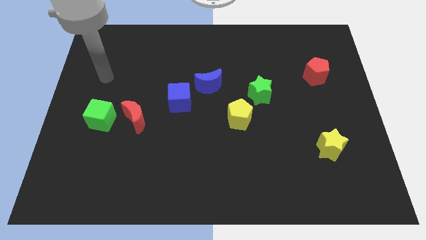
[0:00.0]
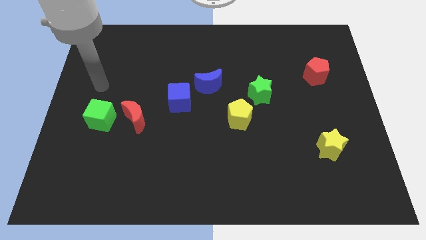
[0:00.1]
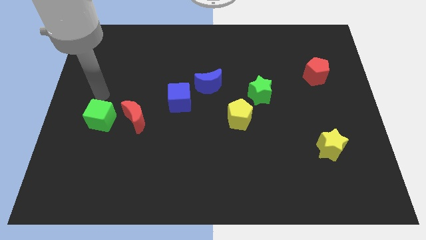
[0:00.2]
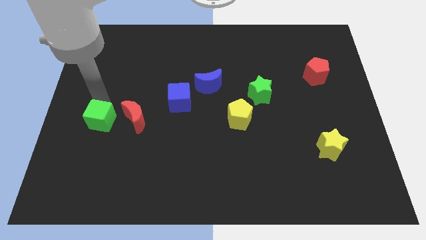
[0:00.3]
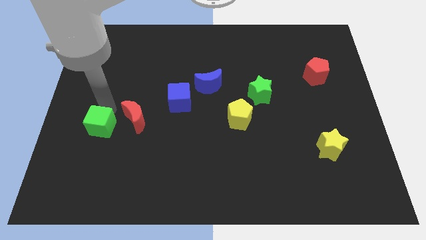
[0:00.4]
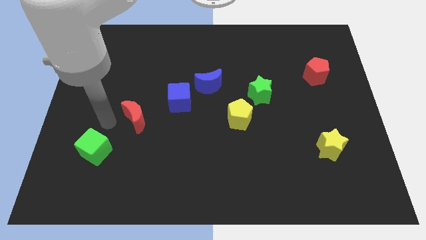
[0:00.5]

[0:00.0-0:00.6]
separate the red moon from the green cube

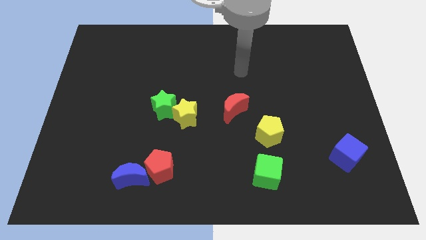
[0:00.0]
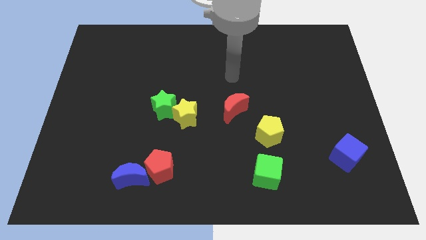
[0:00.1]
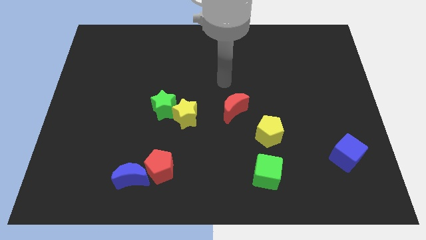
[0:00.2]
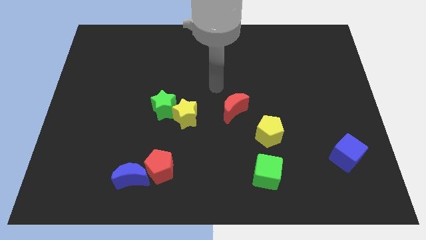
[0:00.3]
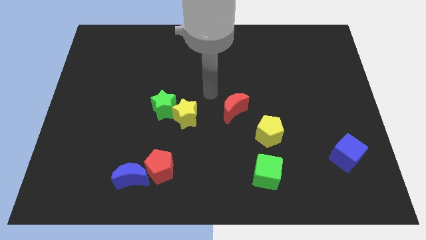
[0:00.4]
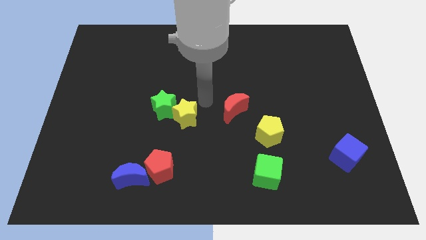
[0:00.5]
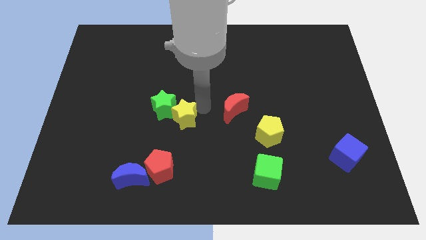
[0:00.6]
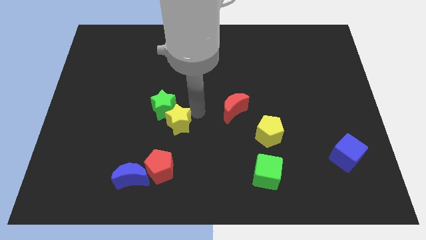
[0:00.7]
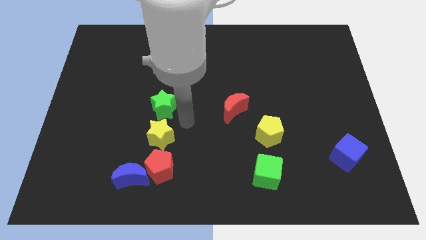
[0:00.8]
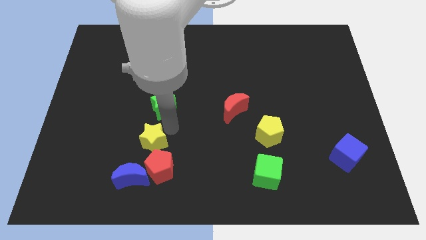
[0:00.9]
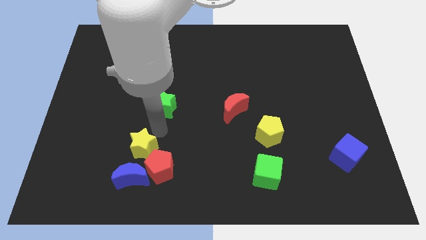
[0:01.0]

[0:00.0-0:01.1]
separate the green star from the yellow star

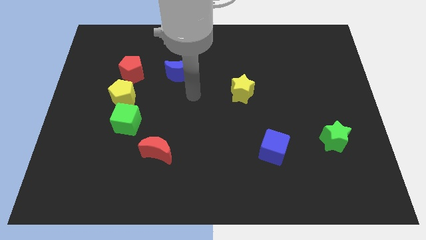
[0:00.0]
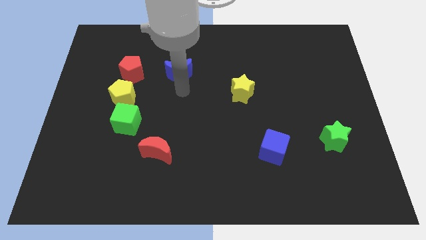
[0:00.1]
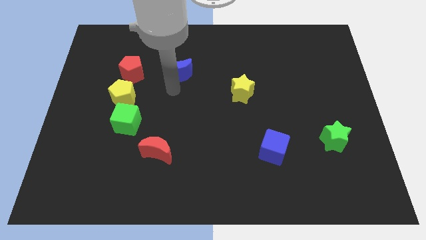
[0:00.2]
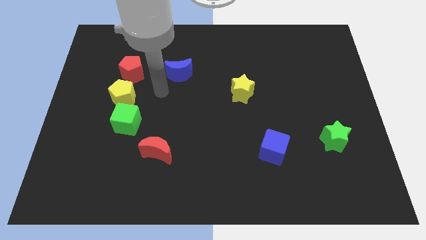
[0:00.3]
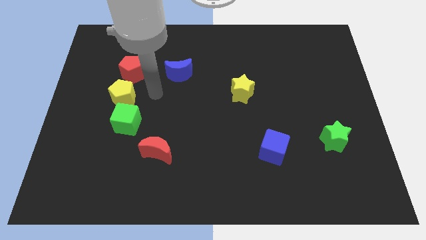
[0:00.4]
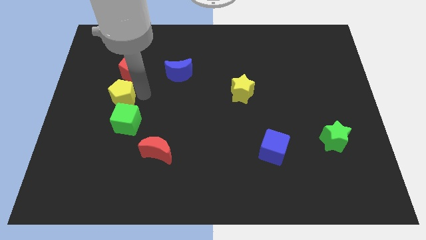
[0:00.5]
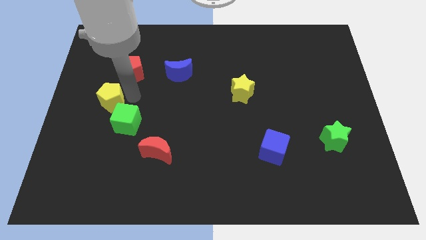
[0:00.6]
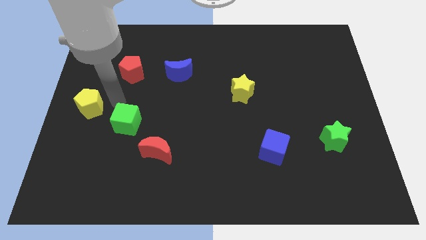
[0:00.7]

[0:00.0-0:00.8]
pull the green cube apart from the yellow pentagon

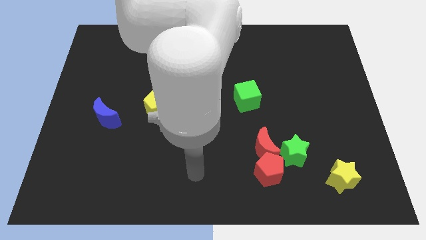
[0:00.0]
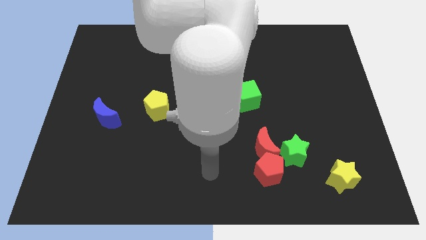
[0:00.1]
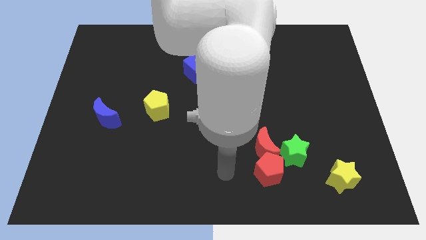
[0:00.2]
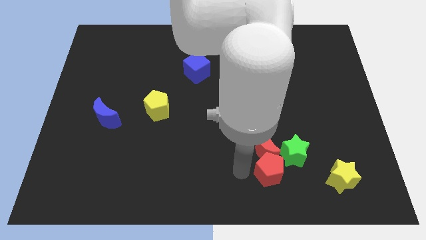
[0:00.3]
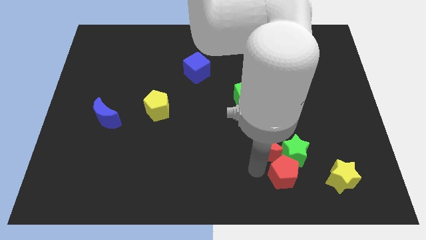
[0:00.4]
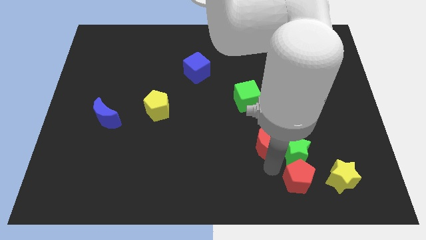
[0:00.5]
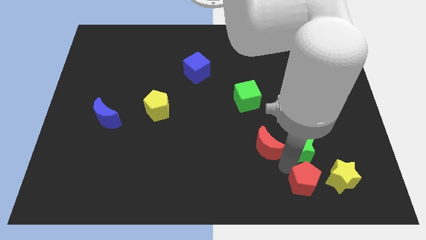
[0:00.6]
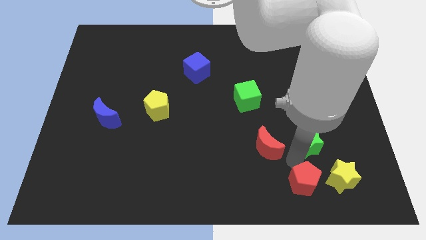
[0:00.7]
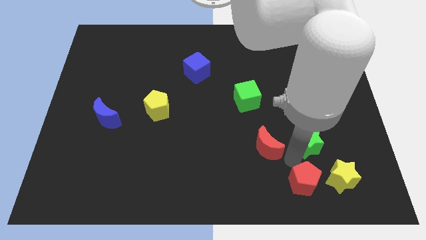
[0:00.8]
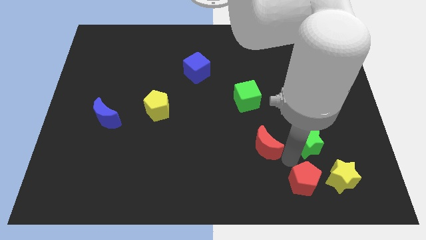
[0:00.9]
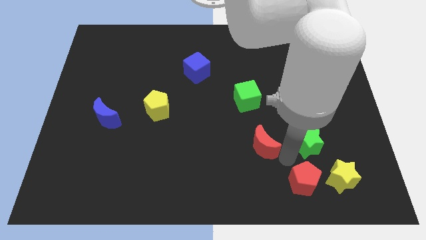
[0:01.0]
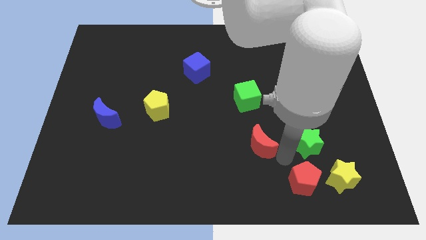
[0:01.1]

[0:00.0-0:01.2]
separate the red moon from the red pentagon and green star

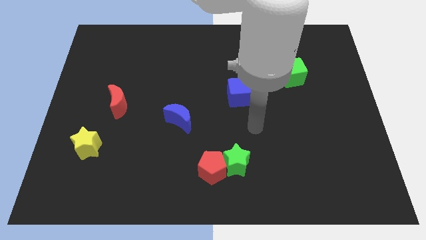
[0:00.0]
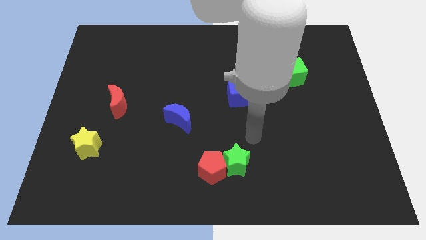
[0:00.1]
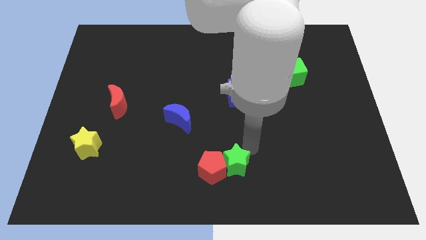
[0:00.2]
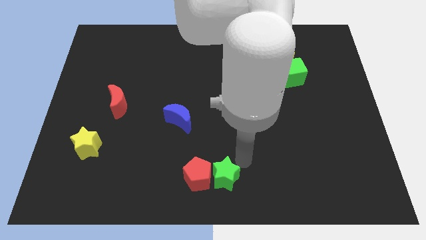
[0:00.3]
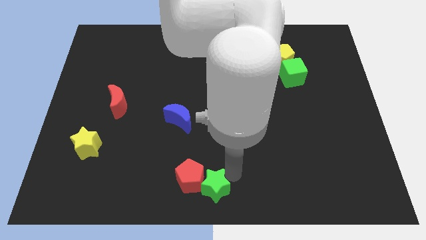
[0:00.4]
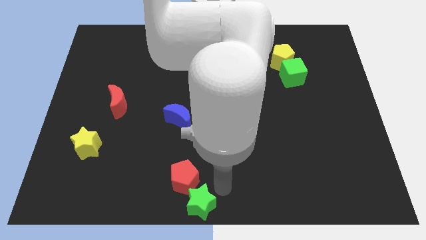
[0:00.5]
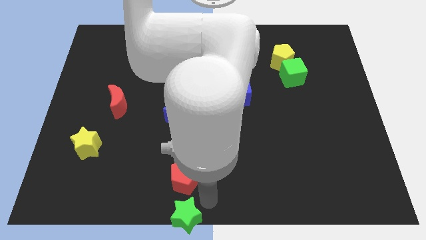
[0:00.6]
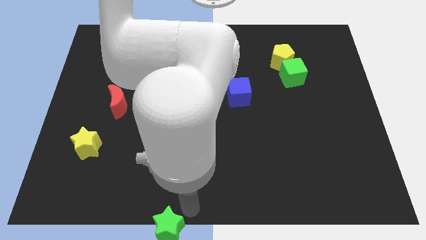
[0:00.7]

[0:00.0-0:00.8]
move the red pentagon away from the green star

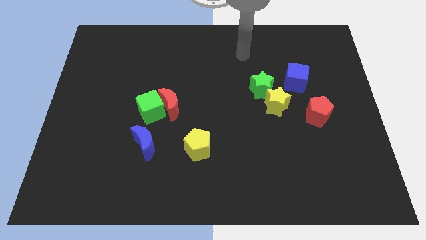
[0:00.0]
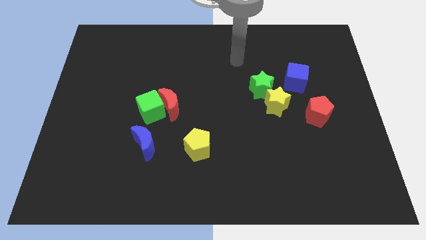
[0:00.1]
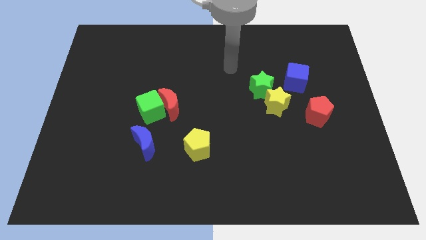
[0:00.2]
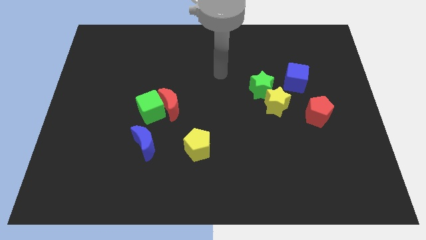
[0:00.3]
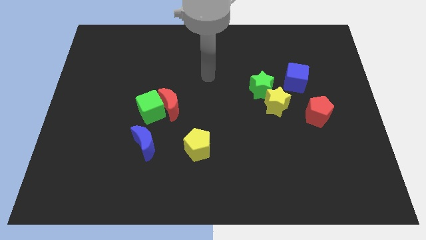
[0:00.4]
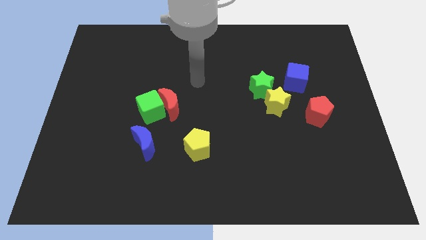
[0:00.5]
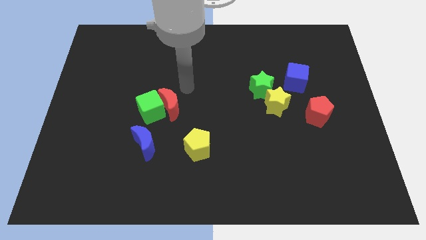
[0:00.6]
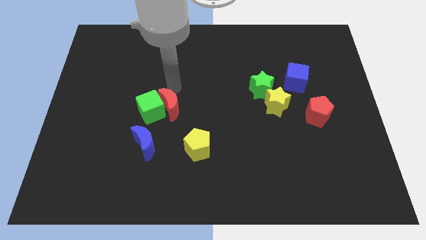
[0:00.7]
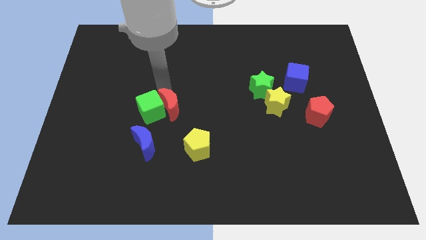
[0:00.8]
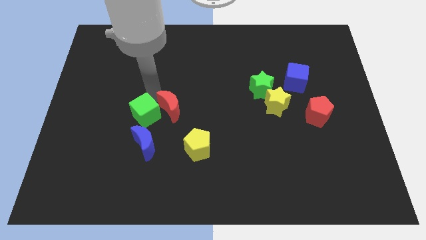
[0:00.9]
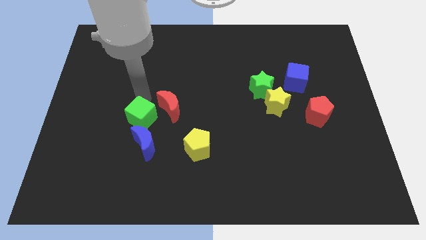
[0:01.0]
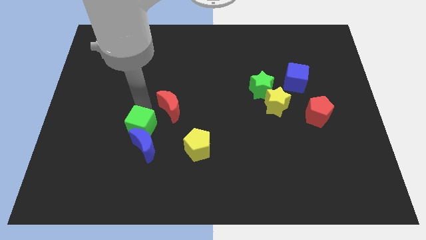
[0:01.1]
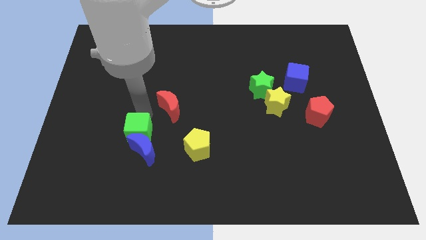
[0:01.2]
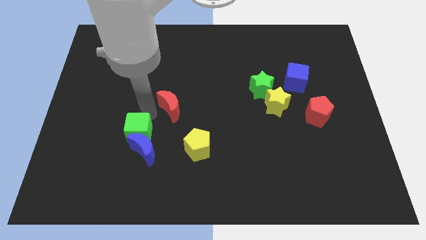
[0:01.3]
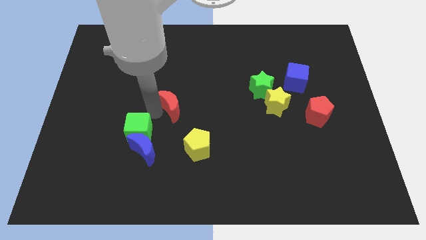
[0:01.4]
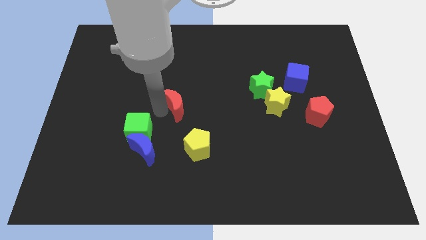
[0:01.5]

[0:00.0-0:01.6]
move the red moon away from the green cube

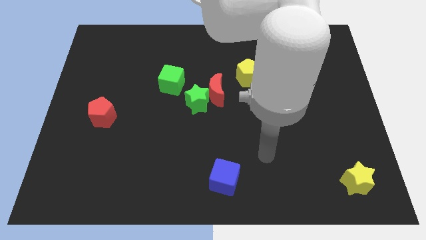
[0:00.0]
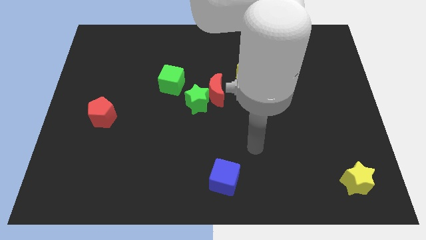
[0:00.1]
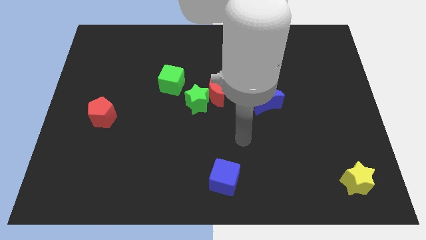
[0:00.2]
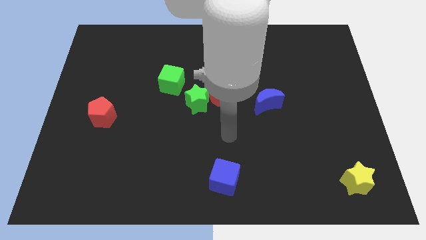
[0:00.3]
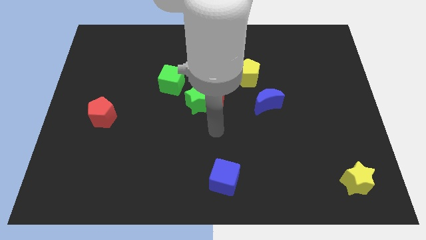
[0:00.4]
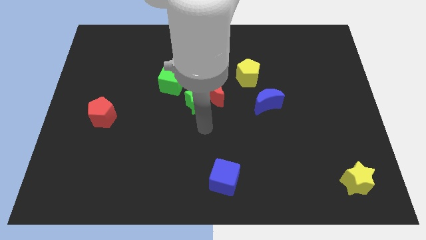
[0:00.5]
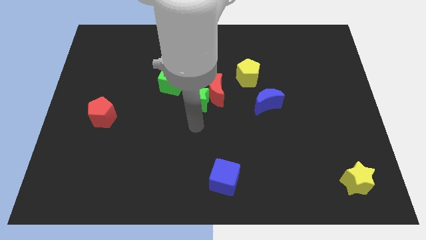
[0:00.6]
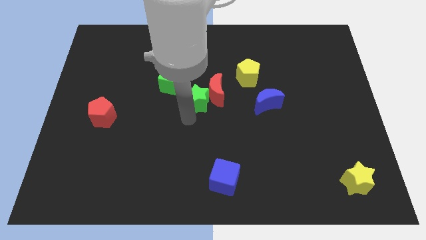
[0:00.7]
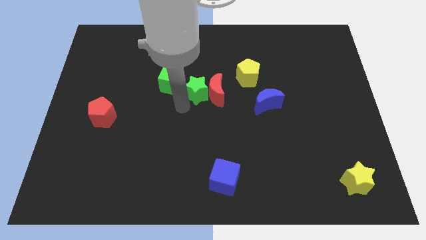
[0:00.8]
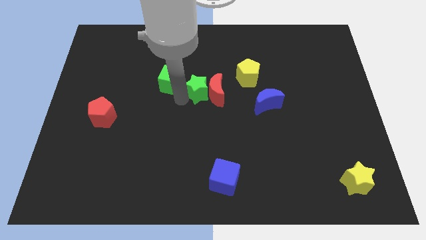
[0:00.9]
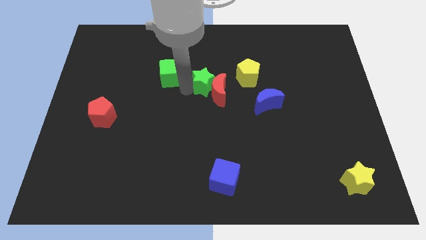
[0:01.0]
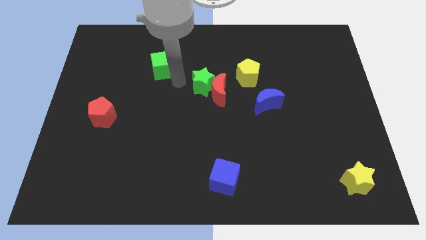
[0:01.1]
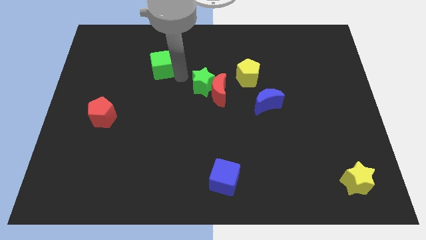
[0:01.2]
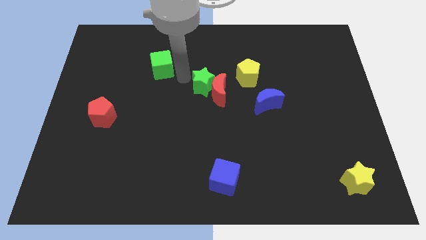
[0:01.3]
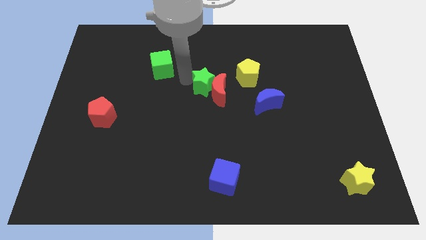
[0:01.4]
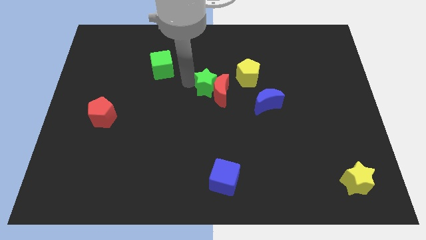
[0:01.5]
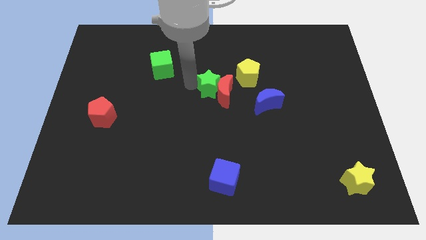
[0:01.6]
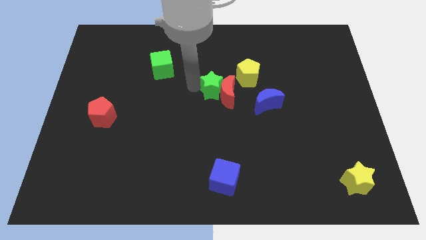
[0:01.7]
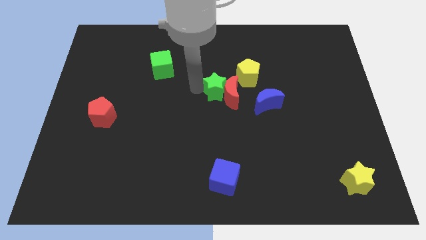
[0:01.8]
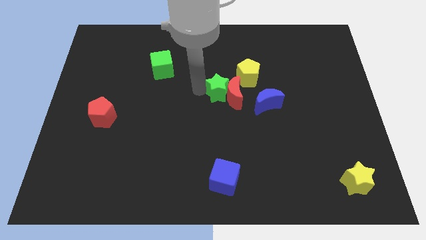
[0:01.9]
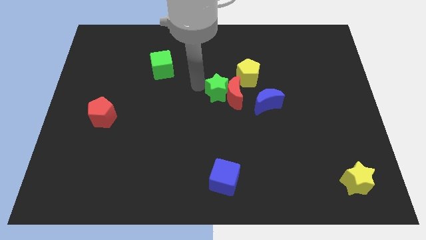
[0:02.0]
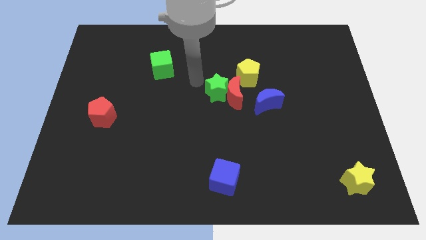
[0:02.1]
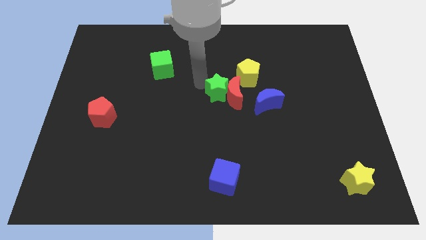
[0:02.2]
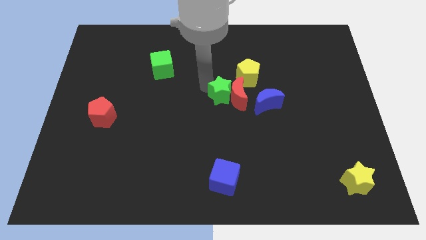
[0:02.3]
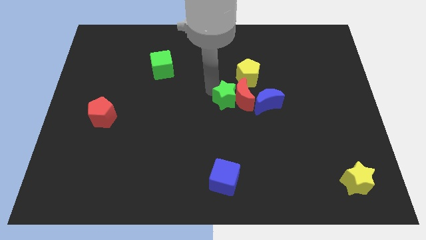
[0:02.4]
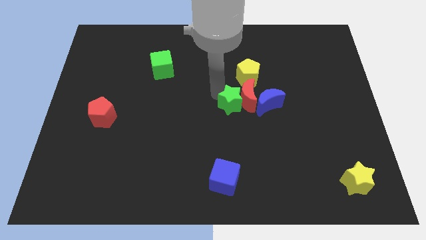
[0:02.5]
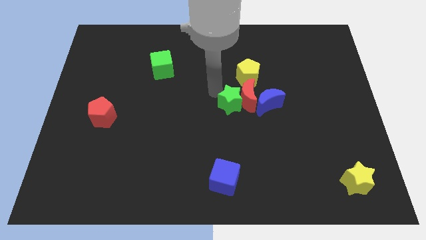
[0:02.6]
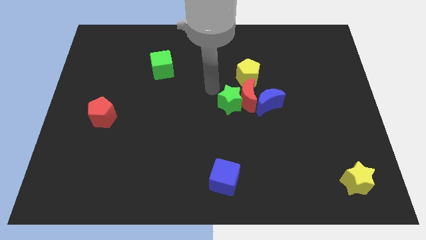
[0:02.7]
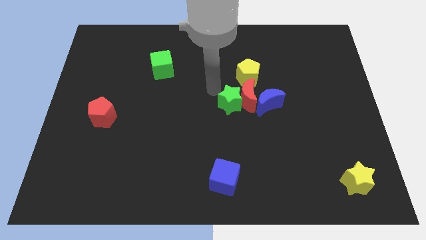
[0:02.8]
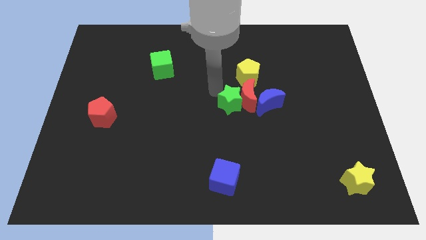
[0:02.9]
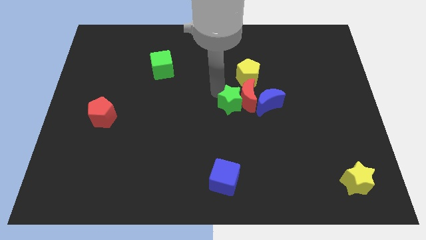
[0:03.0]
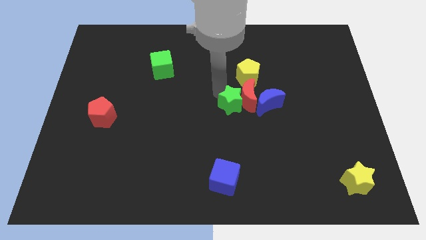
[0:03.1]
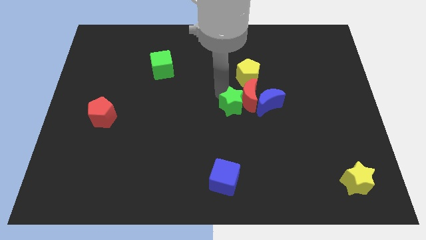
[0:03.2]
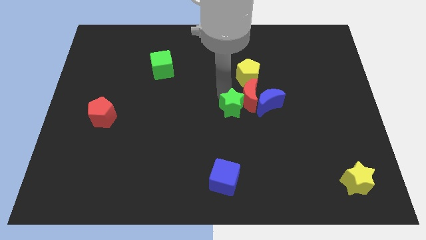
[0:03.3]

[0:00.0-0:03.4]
pull the green star apart from the red moon and green cube
